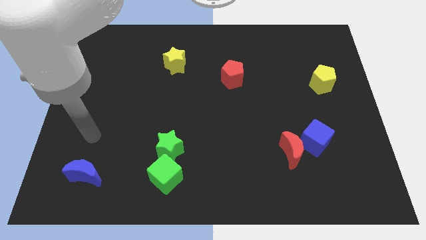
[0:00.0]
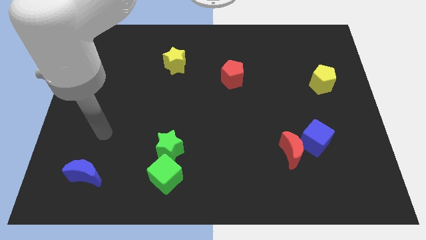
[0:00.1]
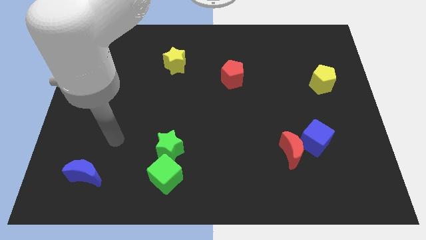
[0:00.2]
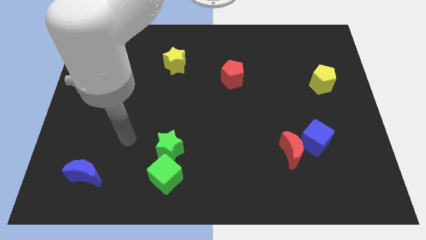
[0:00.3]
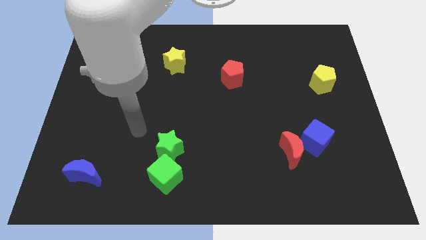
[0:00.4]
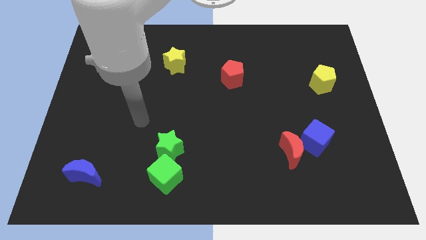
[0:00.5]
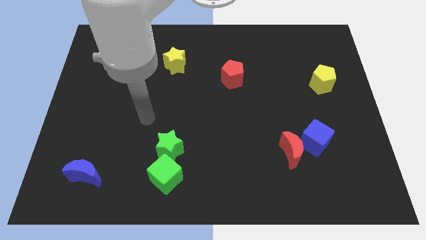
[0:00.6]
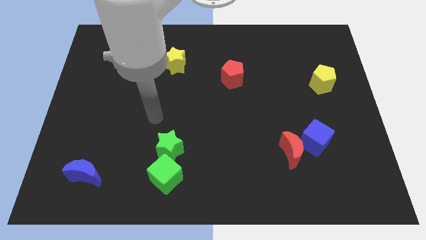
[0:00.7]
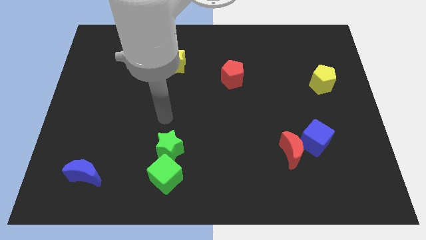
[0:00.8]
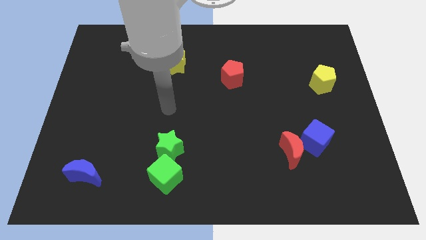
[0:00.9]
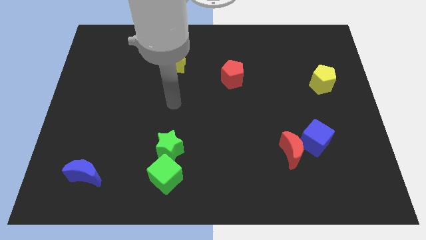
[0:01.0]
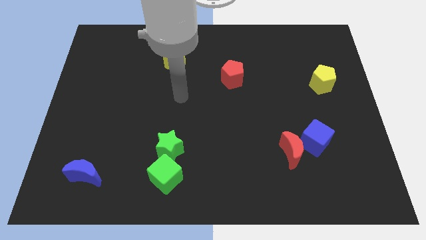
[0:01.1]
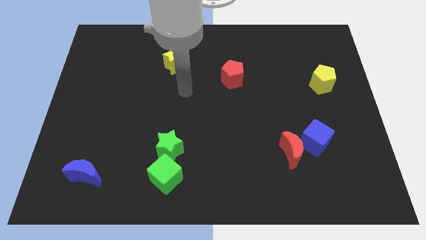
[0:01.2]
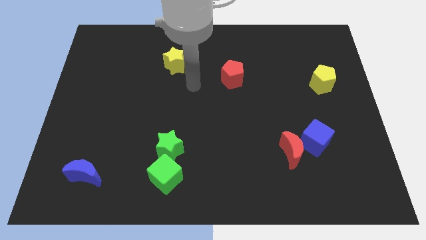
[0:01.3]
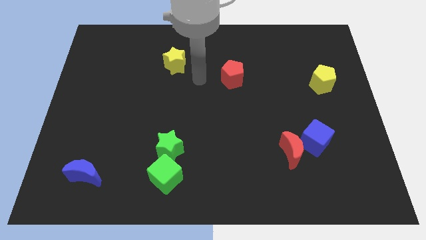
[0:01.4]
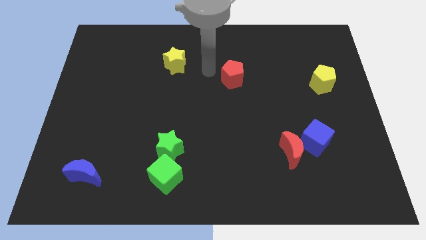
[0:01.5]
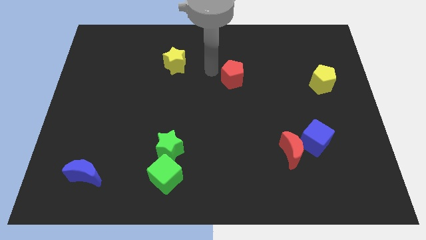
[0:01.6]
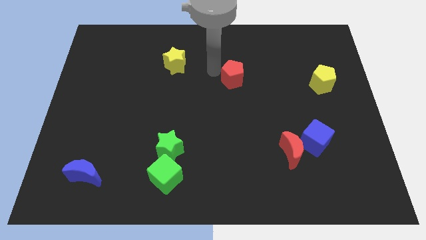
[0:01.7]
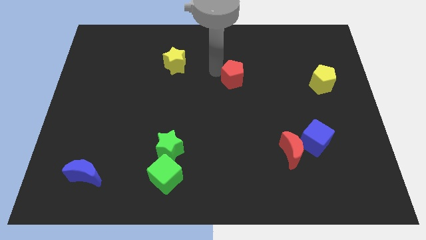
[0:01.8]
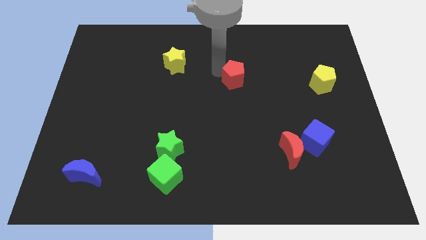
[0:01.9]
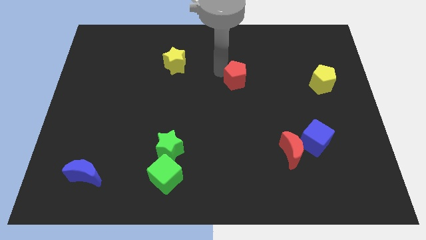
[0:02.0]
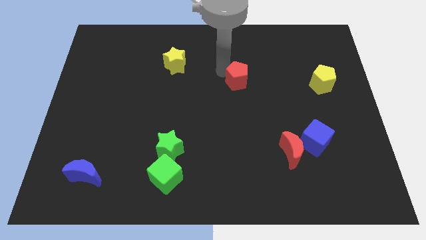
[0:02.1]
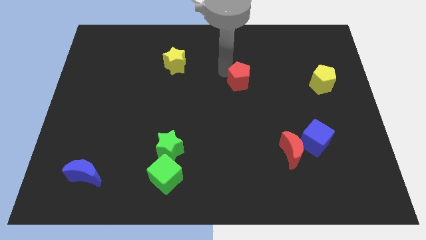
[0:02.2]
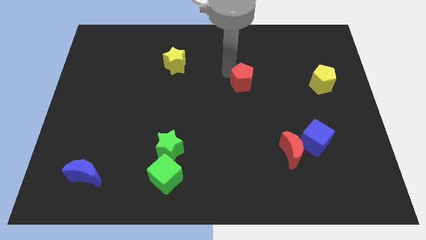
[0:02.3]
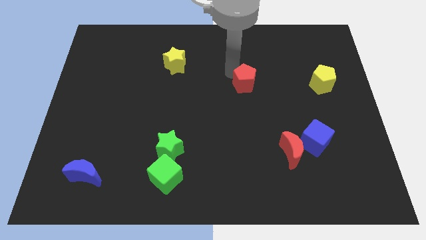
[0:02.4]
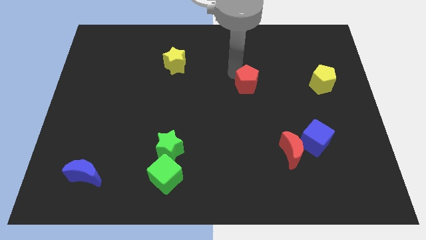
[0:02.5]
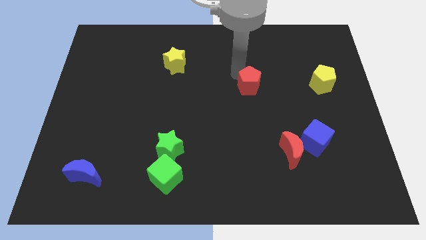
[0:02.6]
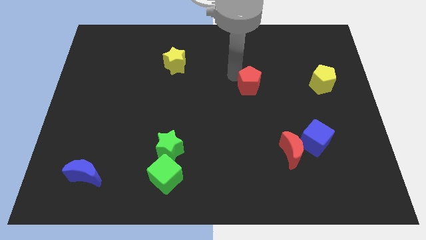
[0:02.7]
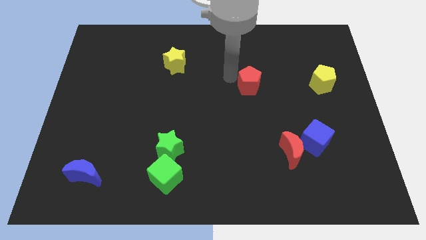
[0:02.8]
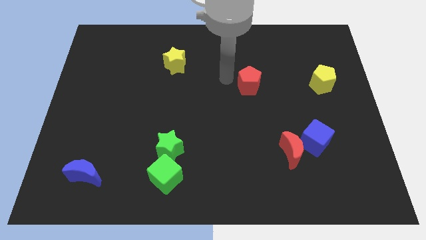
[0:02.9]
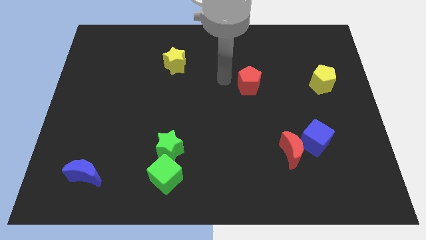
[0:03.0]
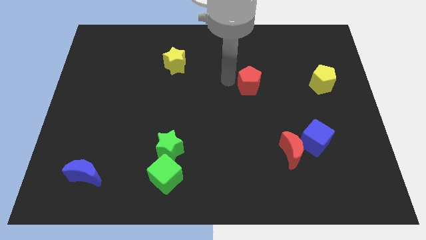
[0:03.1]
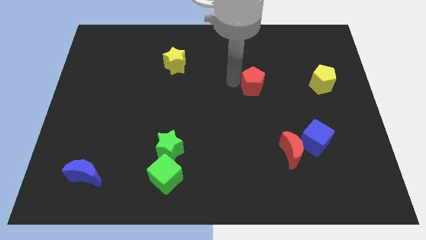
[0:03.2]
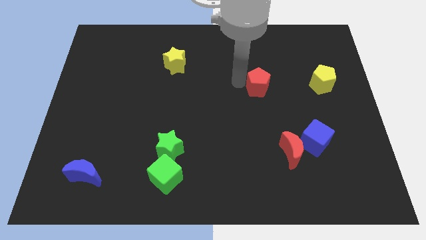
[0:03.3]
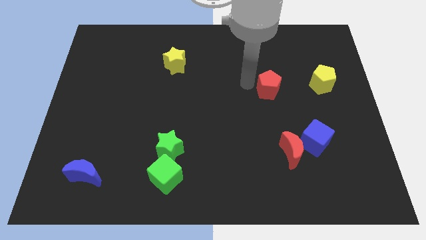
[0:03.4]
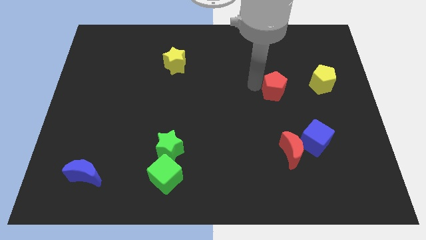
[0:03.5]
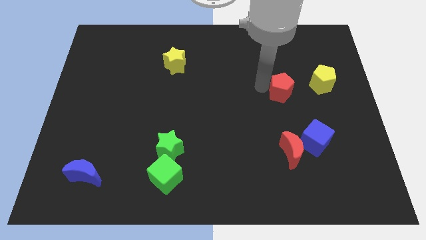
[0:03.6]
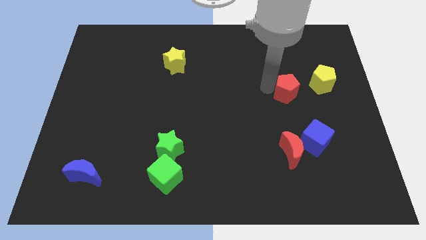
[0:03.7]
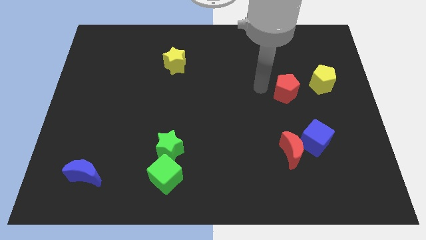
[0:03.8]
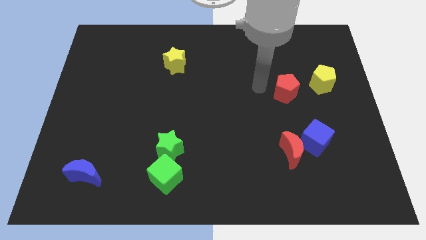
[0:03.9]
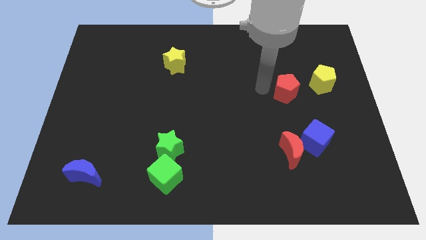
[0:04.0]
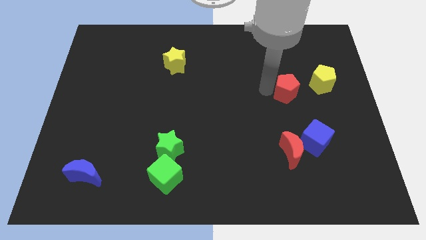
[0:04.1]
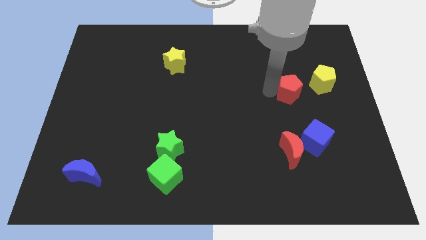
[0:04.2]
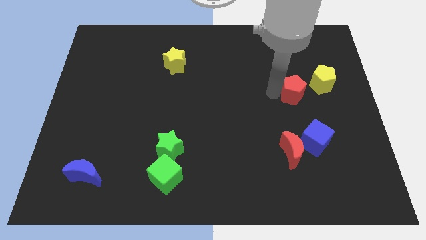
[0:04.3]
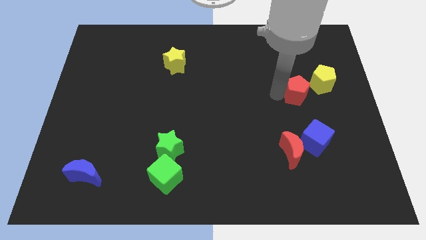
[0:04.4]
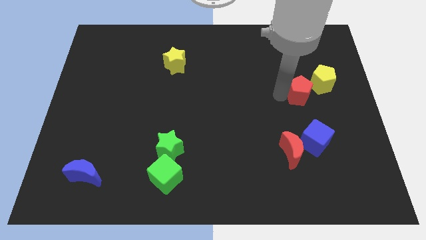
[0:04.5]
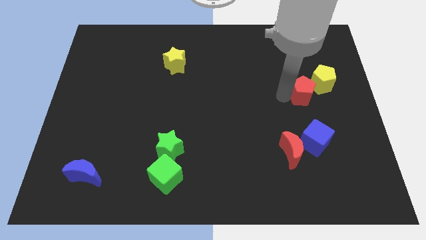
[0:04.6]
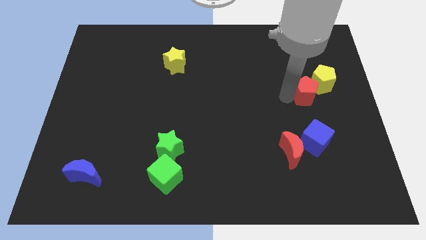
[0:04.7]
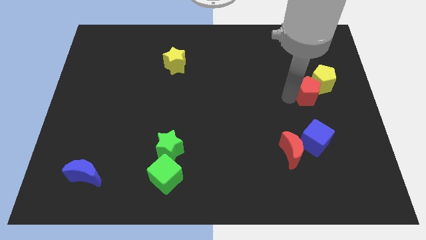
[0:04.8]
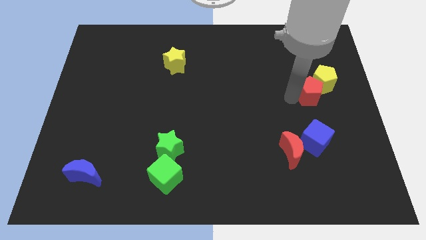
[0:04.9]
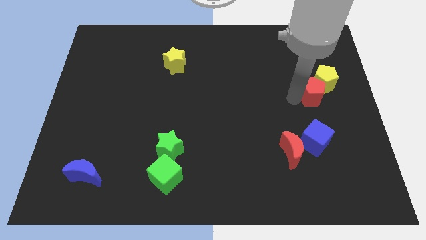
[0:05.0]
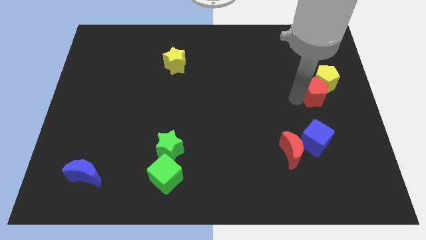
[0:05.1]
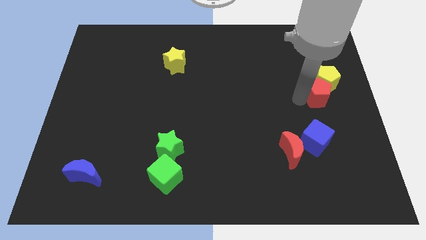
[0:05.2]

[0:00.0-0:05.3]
move the red pentagon to the right side of the board

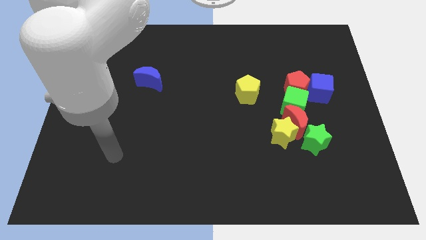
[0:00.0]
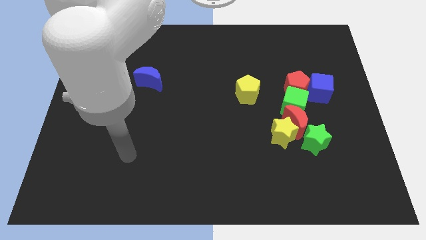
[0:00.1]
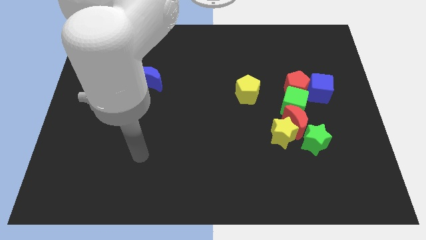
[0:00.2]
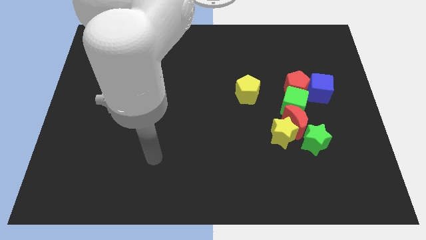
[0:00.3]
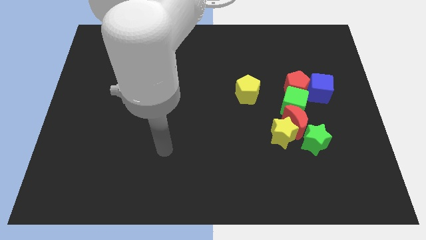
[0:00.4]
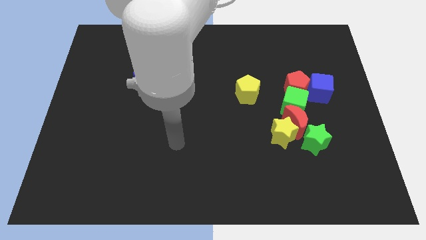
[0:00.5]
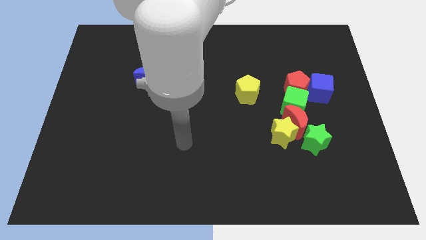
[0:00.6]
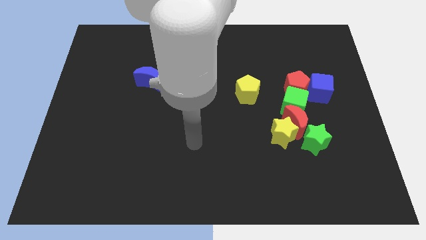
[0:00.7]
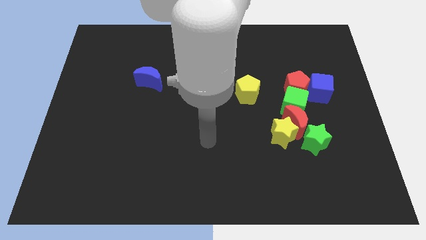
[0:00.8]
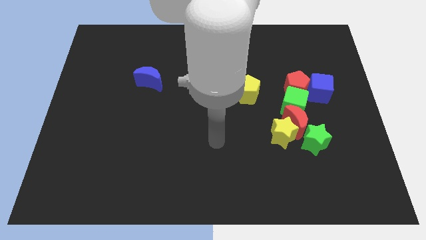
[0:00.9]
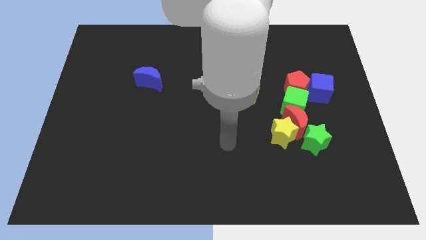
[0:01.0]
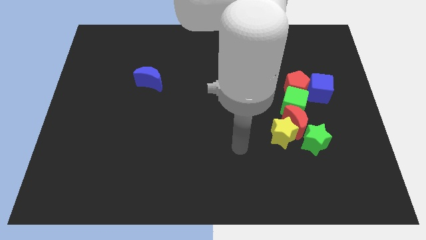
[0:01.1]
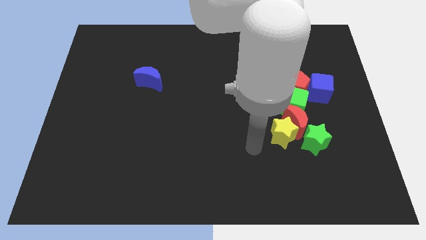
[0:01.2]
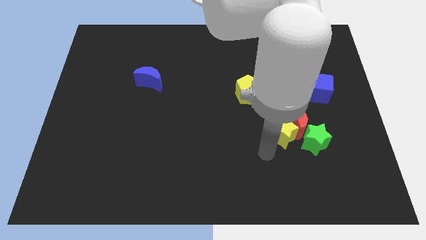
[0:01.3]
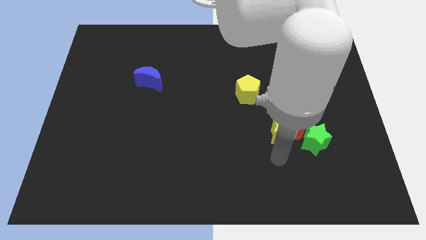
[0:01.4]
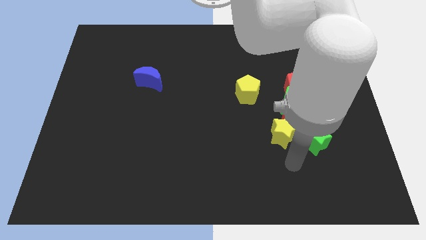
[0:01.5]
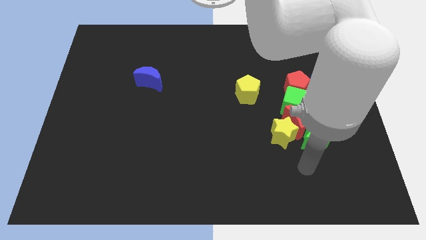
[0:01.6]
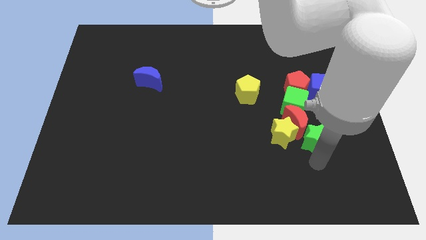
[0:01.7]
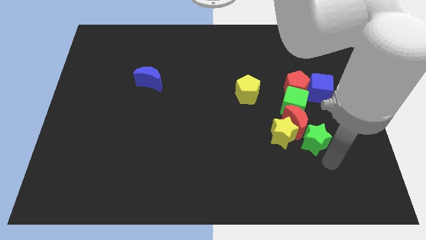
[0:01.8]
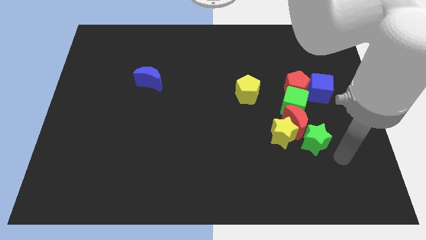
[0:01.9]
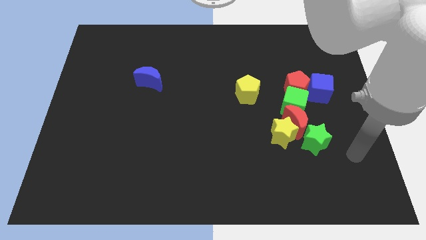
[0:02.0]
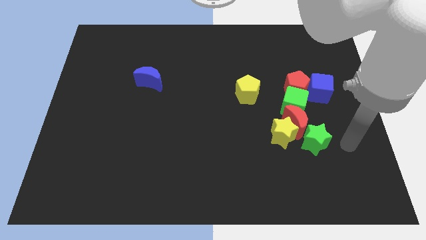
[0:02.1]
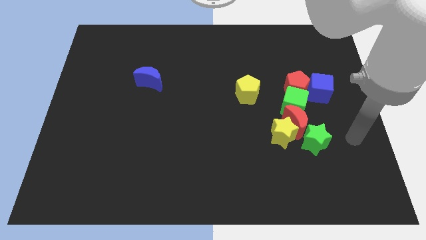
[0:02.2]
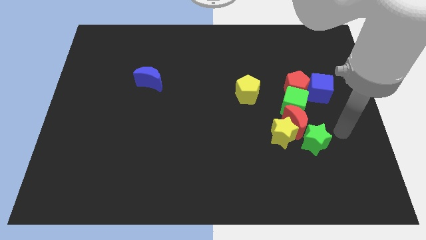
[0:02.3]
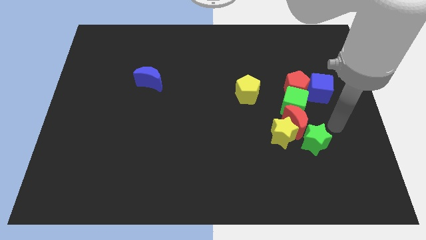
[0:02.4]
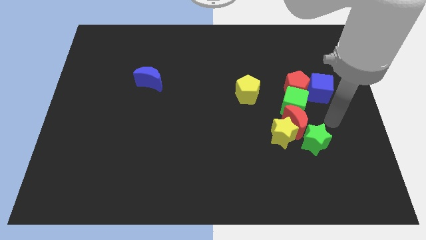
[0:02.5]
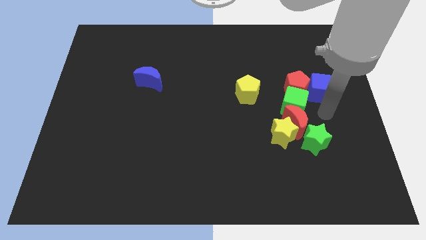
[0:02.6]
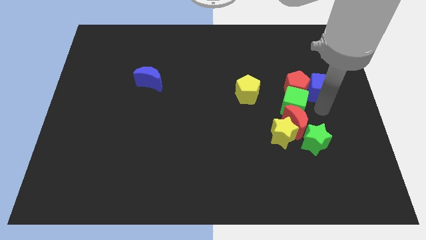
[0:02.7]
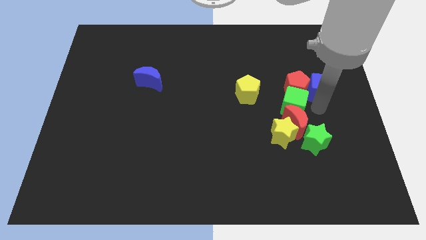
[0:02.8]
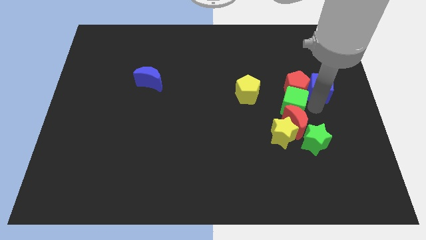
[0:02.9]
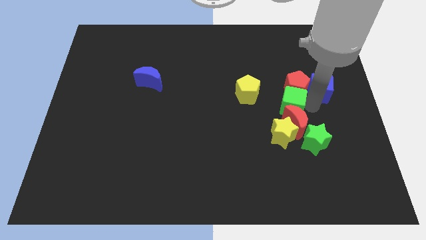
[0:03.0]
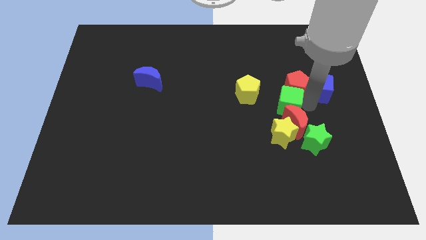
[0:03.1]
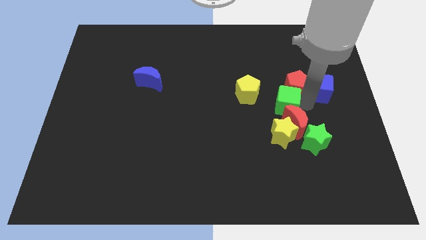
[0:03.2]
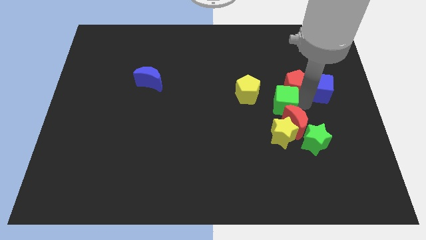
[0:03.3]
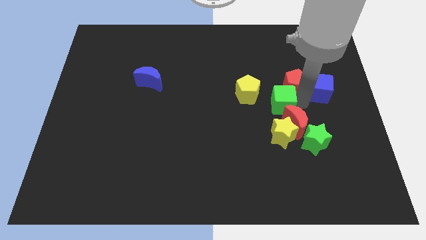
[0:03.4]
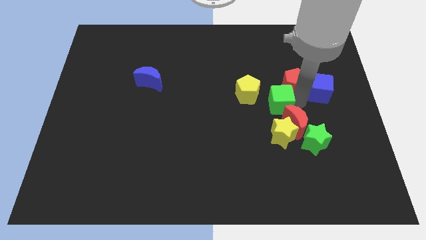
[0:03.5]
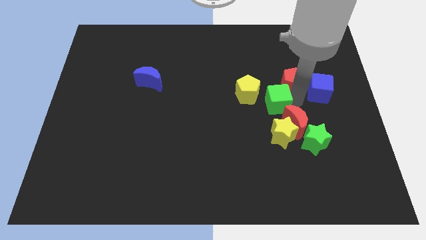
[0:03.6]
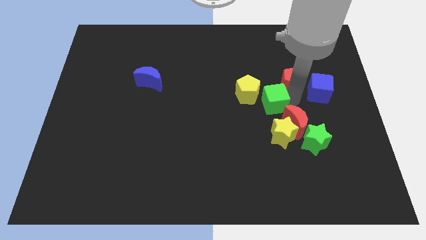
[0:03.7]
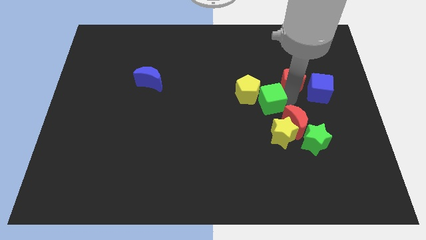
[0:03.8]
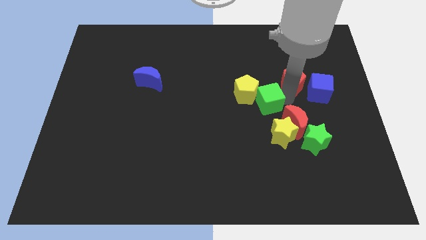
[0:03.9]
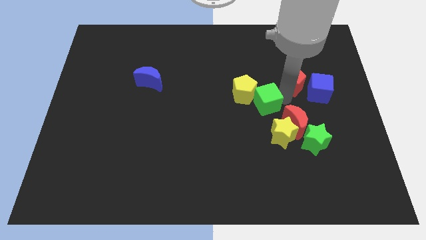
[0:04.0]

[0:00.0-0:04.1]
put the green cube to the middle of the board
